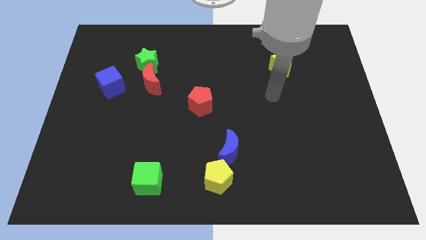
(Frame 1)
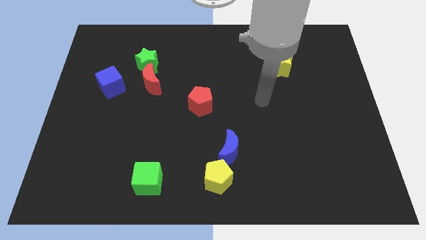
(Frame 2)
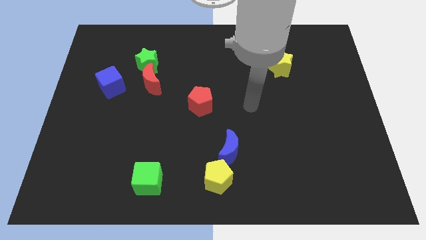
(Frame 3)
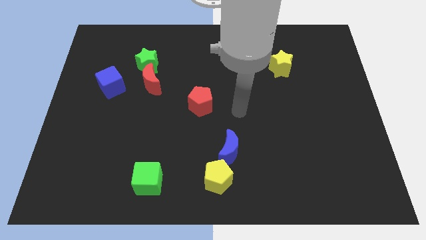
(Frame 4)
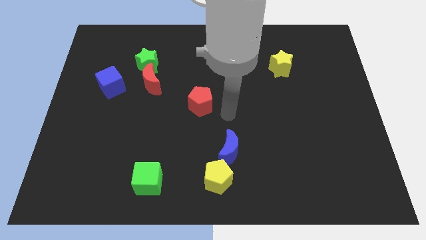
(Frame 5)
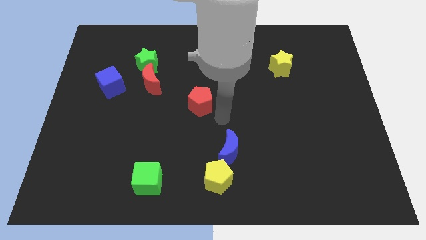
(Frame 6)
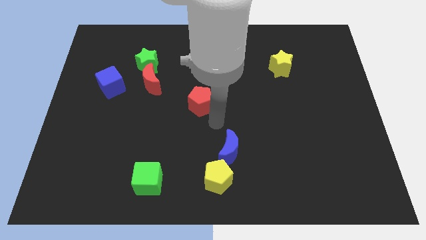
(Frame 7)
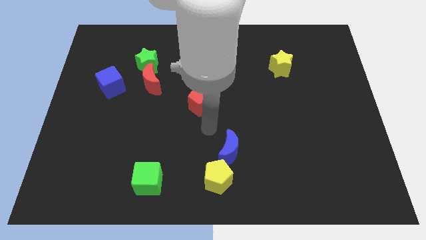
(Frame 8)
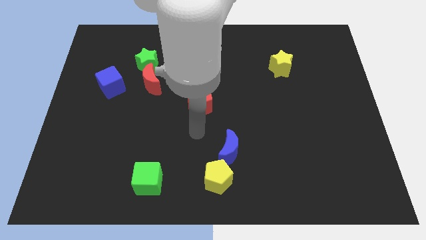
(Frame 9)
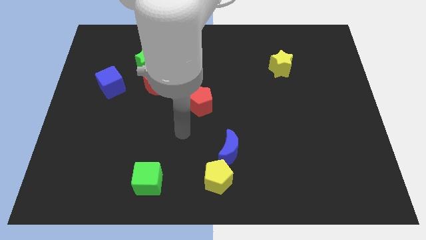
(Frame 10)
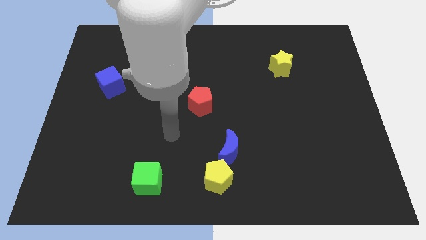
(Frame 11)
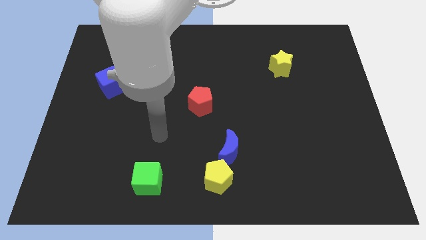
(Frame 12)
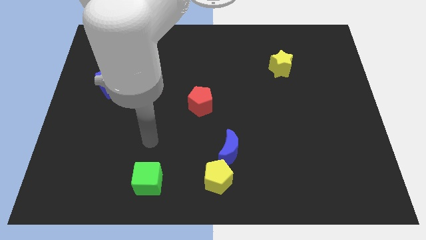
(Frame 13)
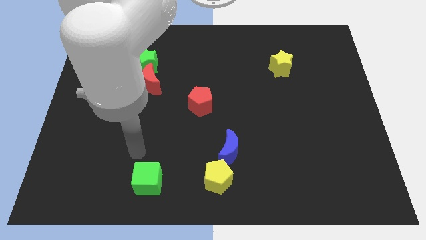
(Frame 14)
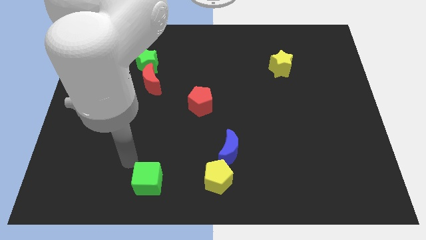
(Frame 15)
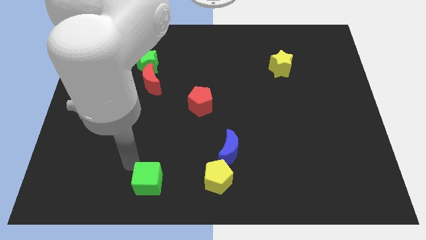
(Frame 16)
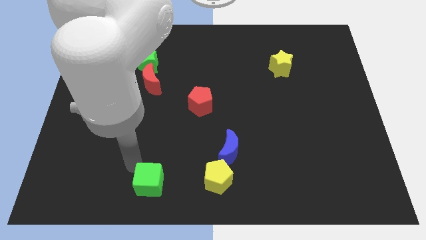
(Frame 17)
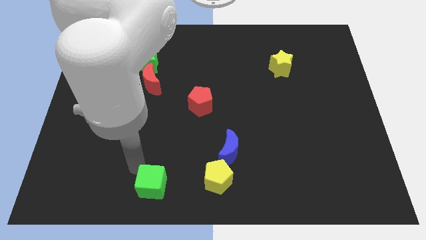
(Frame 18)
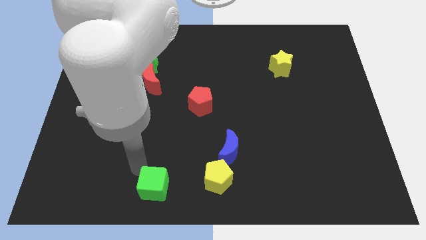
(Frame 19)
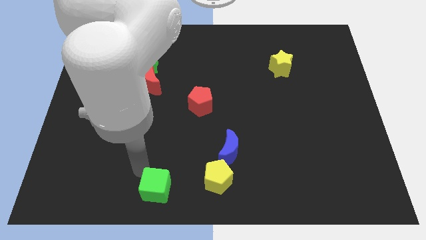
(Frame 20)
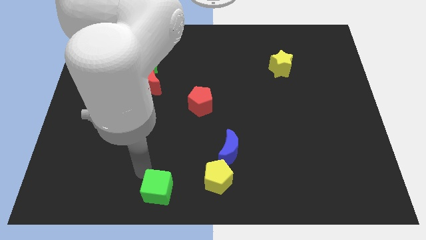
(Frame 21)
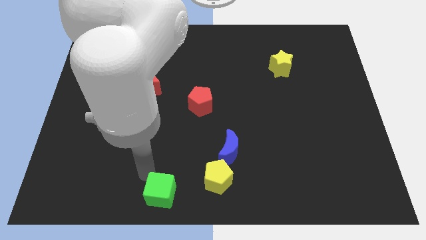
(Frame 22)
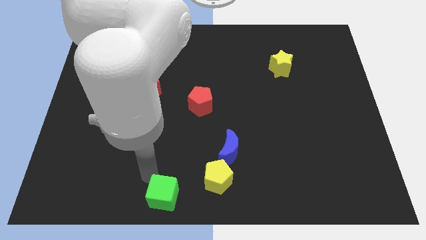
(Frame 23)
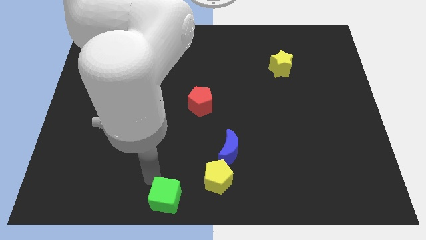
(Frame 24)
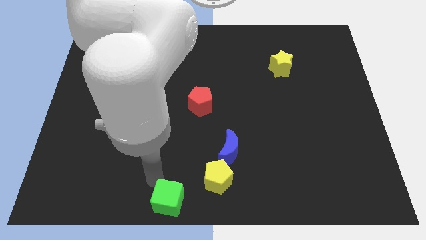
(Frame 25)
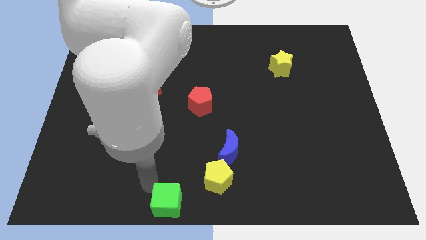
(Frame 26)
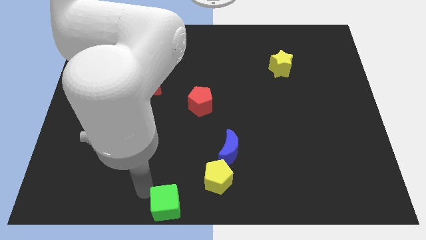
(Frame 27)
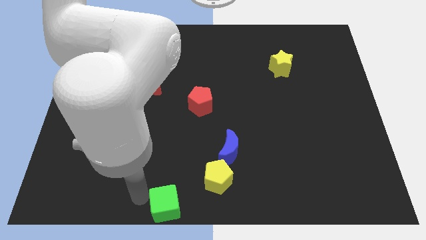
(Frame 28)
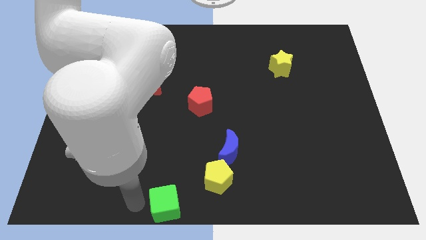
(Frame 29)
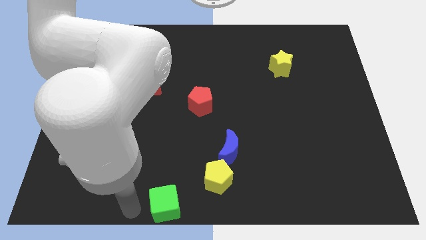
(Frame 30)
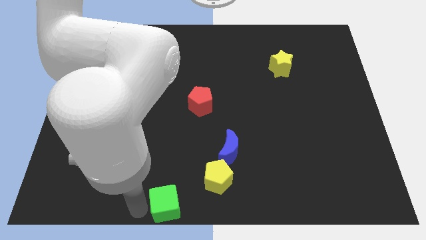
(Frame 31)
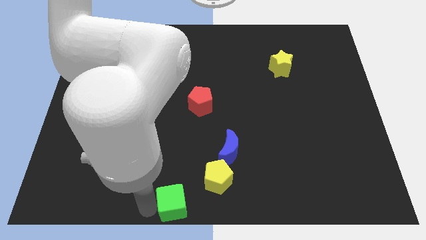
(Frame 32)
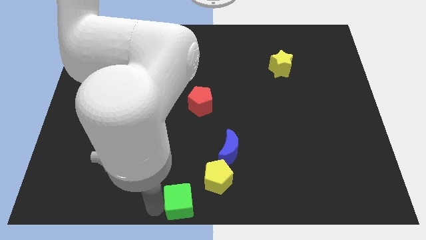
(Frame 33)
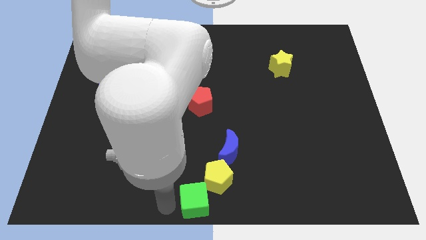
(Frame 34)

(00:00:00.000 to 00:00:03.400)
slide the green cube right a bit

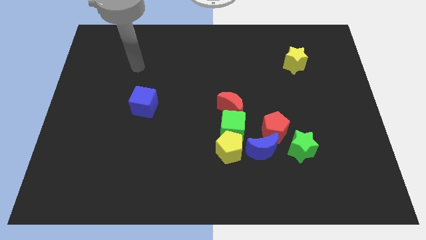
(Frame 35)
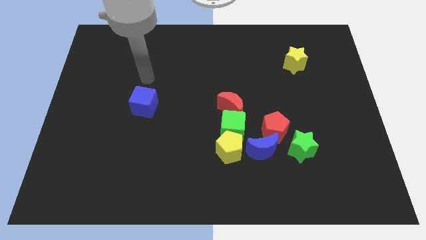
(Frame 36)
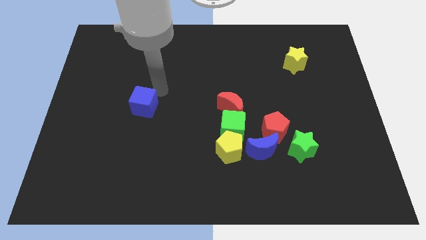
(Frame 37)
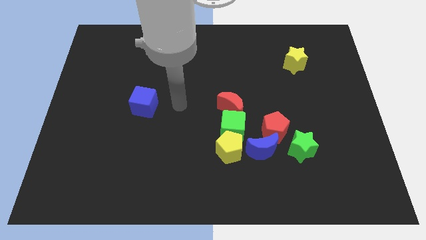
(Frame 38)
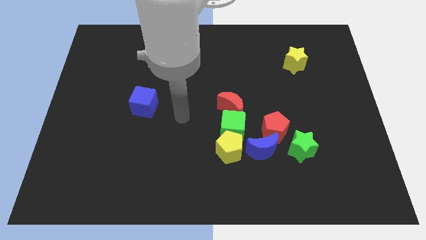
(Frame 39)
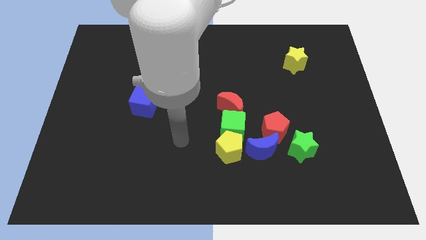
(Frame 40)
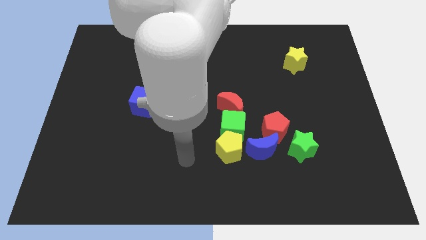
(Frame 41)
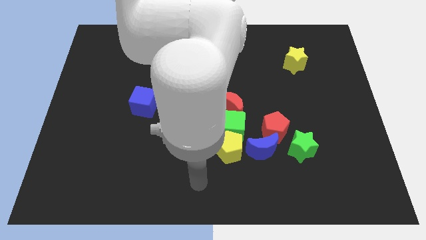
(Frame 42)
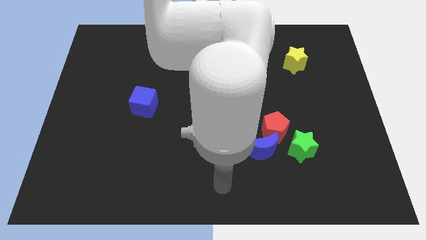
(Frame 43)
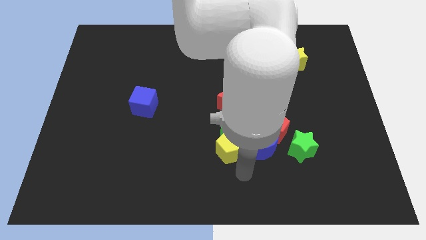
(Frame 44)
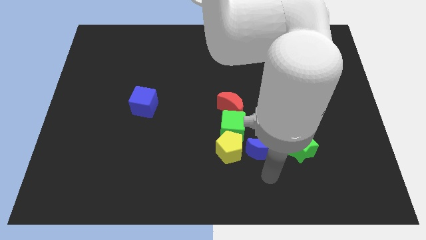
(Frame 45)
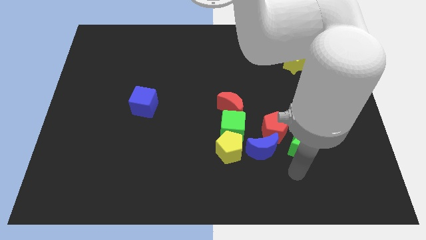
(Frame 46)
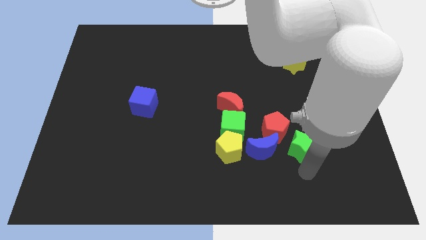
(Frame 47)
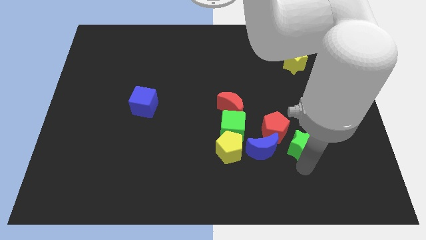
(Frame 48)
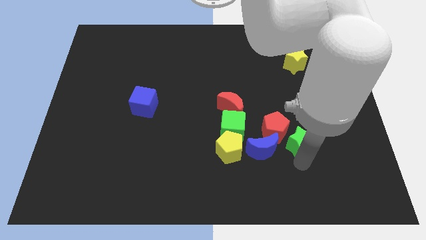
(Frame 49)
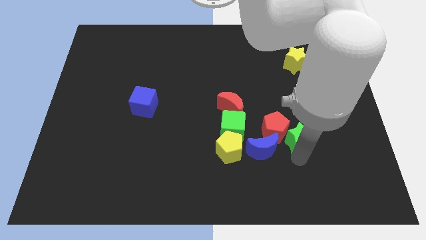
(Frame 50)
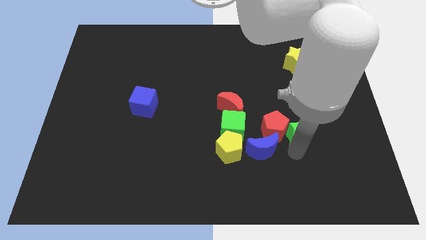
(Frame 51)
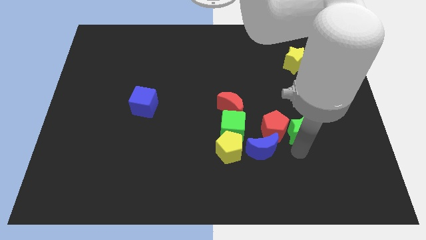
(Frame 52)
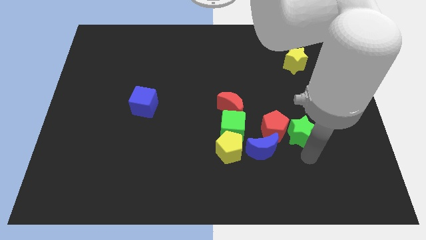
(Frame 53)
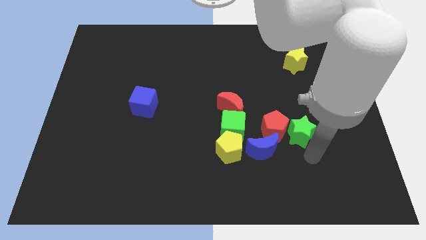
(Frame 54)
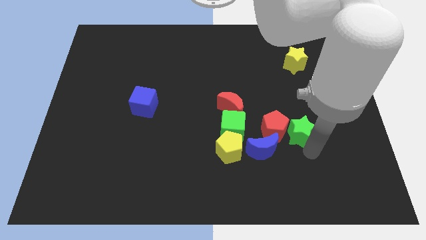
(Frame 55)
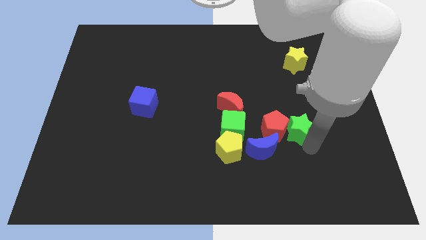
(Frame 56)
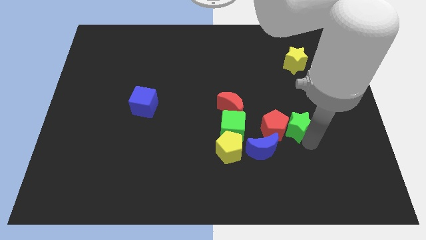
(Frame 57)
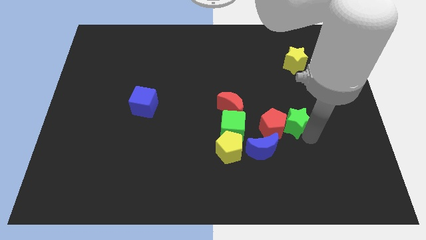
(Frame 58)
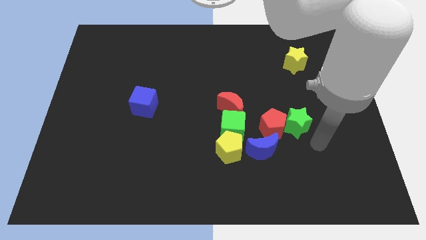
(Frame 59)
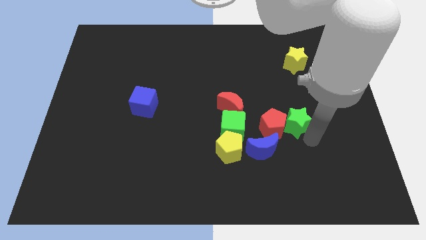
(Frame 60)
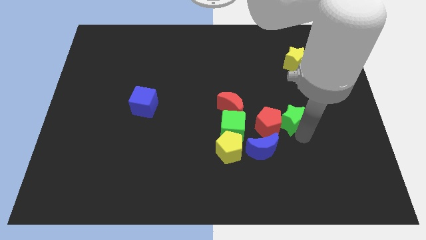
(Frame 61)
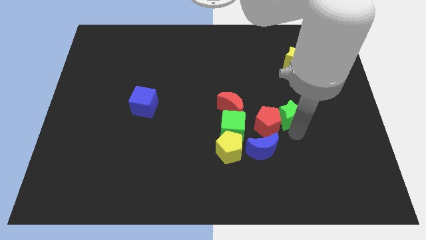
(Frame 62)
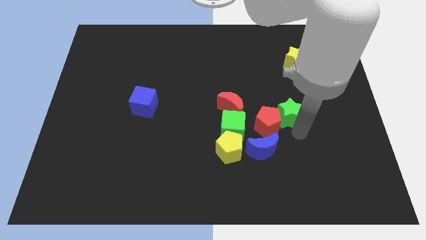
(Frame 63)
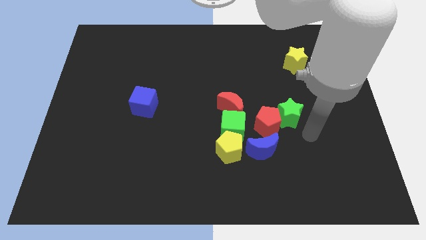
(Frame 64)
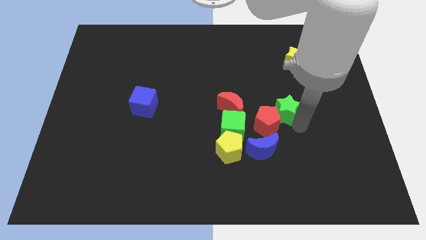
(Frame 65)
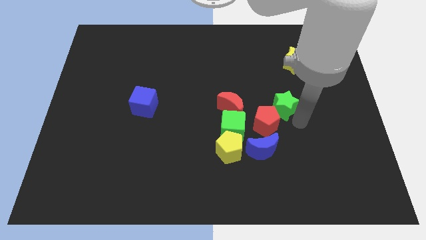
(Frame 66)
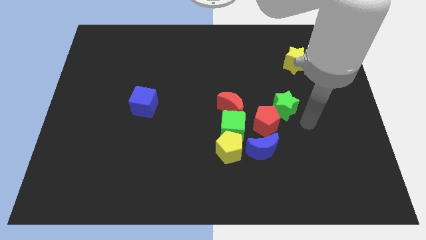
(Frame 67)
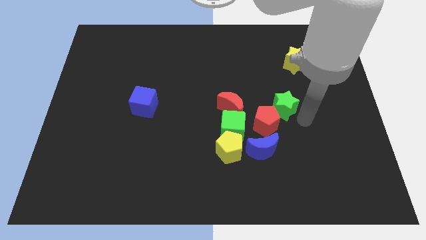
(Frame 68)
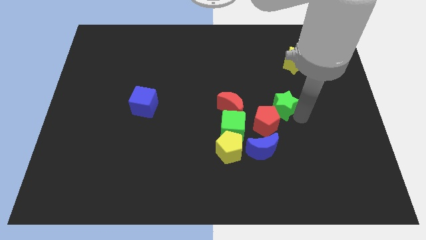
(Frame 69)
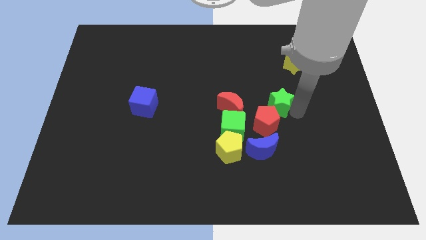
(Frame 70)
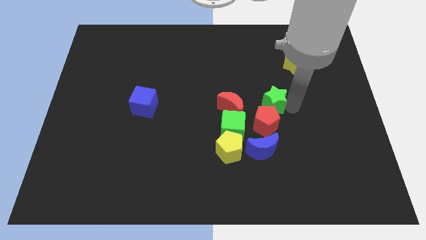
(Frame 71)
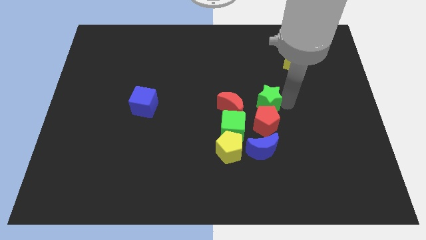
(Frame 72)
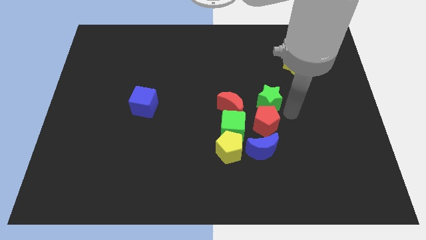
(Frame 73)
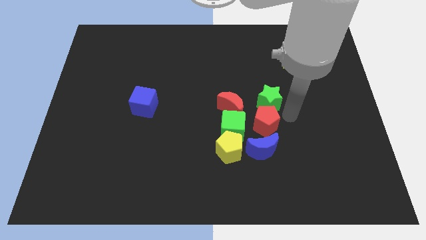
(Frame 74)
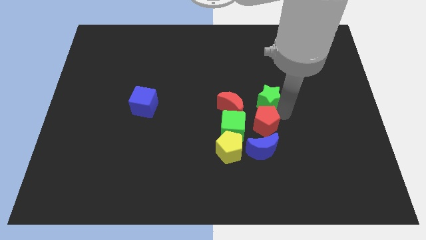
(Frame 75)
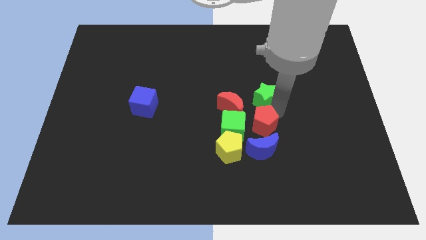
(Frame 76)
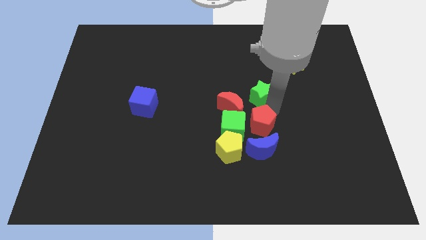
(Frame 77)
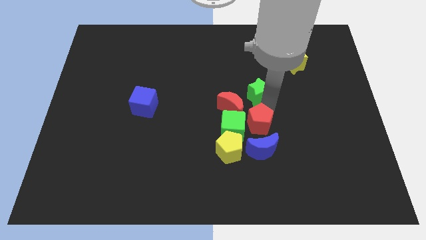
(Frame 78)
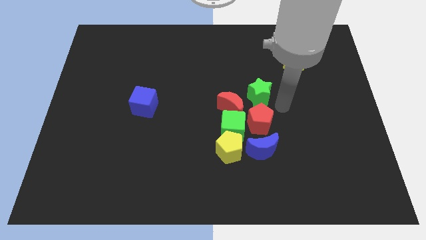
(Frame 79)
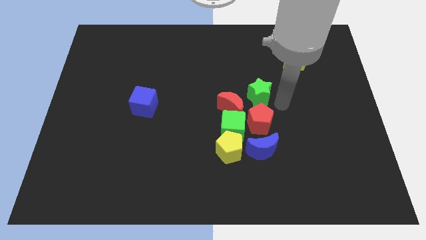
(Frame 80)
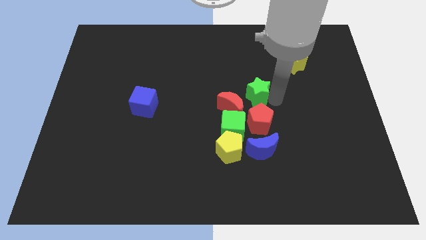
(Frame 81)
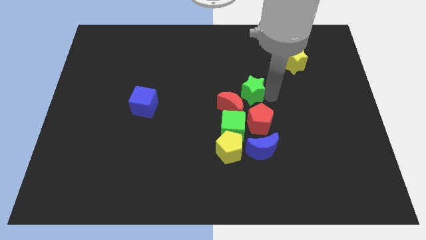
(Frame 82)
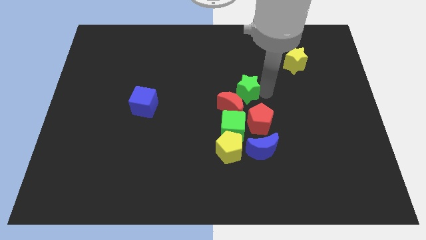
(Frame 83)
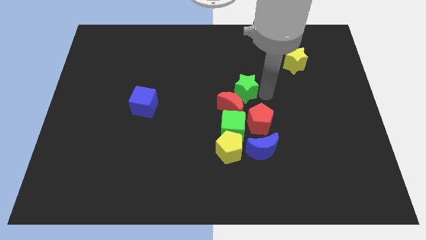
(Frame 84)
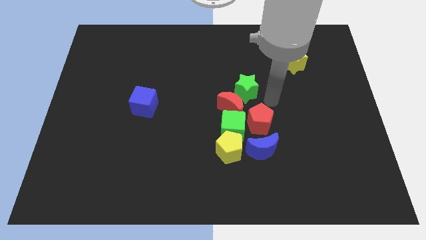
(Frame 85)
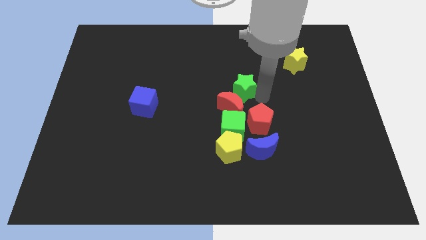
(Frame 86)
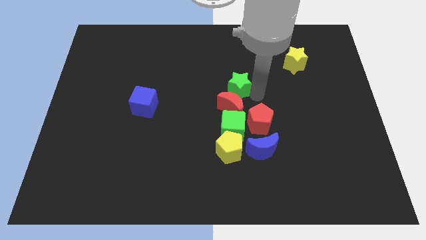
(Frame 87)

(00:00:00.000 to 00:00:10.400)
move the green star diagonally upwards and to the left
